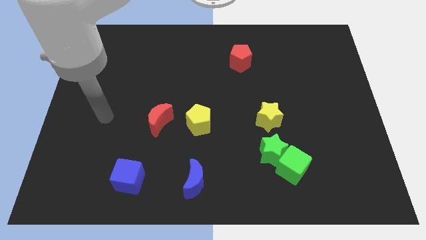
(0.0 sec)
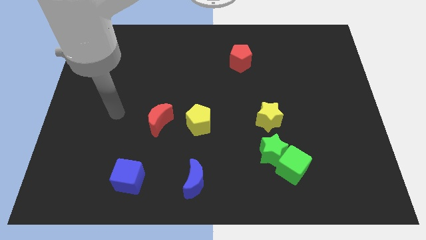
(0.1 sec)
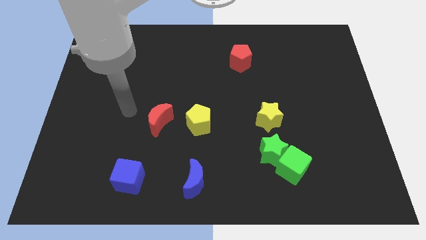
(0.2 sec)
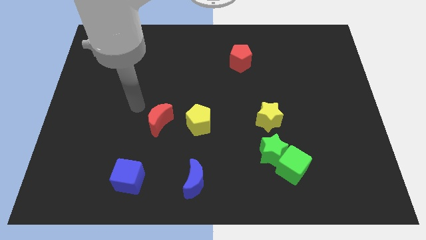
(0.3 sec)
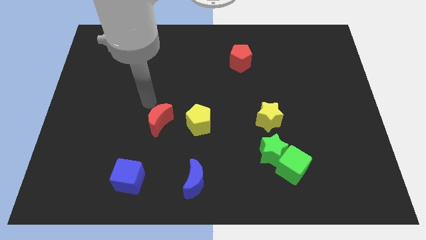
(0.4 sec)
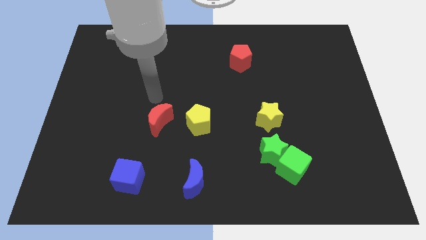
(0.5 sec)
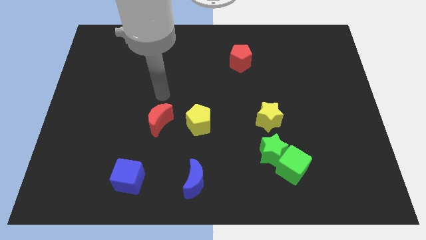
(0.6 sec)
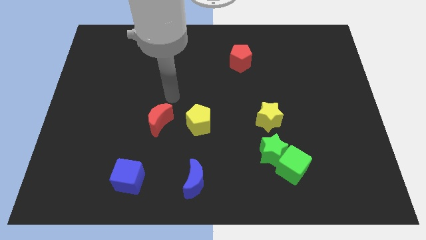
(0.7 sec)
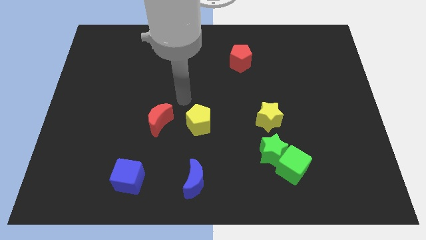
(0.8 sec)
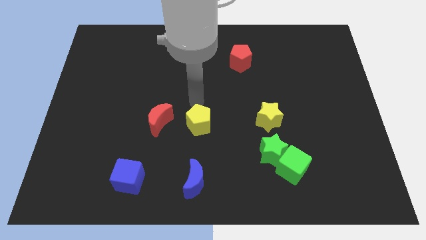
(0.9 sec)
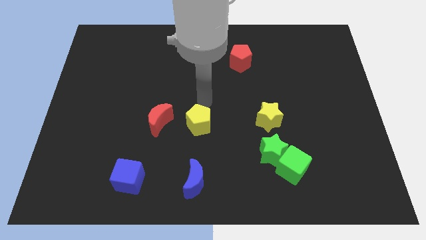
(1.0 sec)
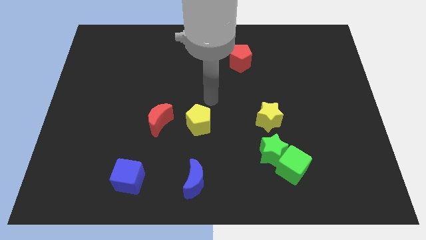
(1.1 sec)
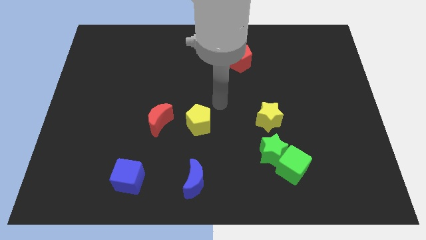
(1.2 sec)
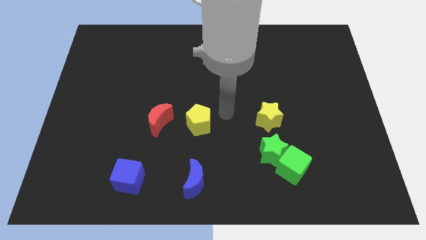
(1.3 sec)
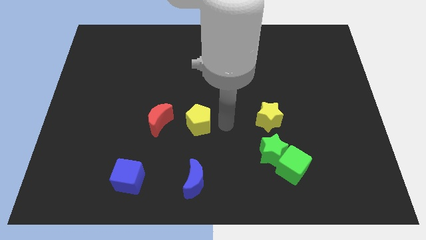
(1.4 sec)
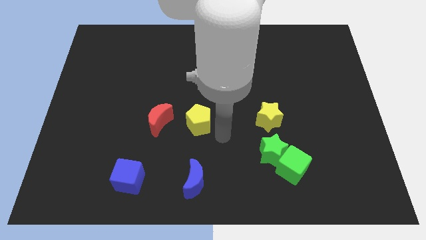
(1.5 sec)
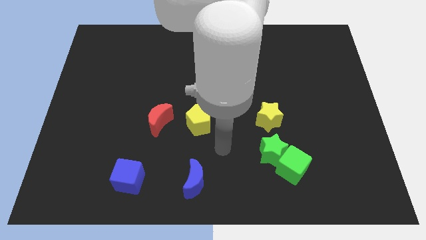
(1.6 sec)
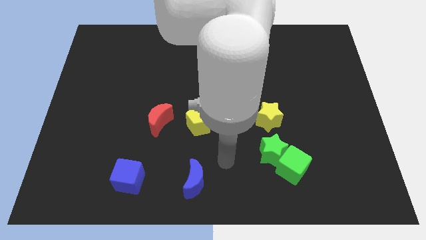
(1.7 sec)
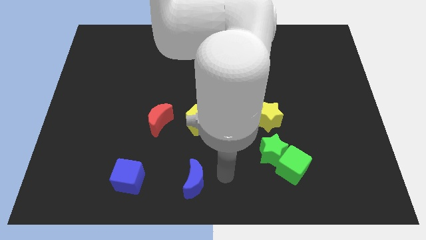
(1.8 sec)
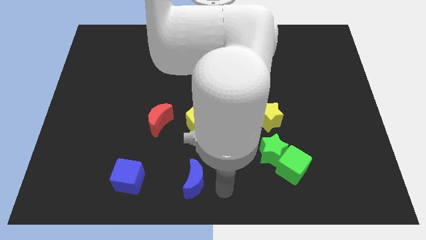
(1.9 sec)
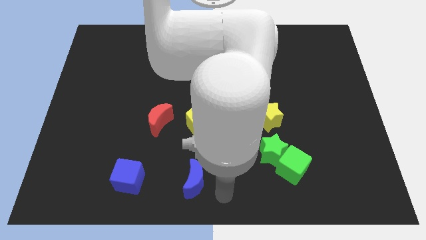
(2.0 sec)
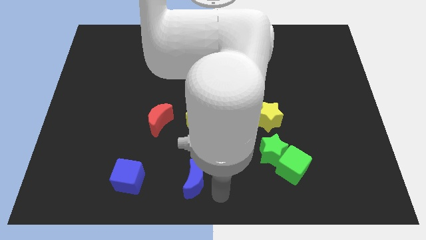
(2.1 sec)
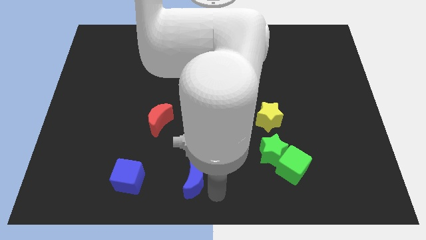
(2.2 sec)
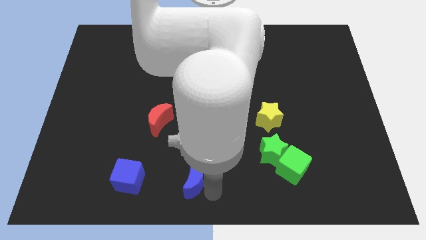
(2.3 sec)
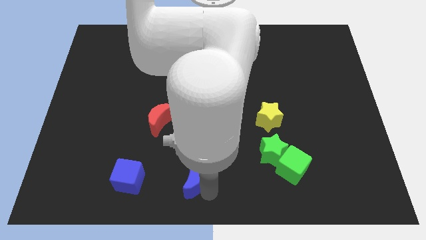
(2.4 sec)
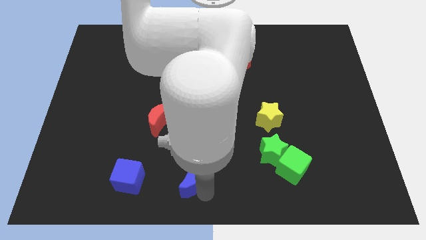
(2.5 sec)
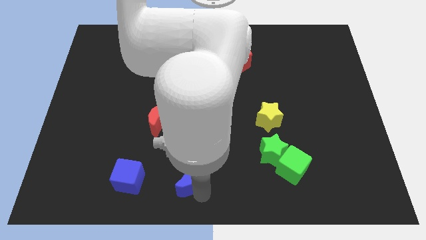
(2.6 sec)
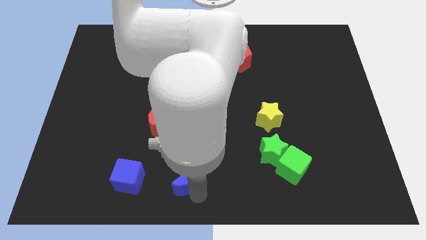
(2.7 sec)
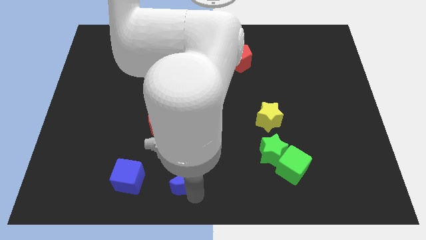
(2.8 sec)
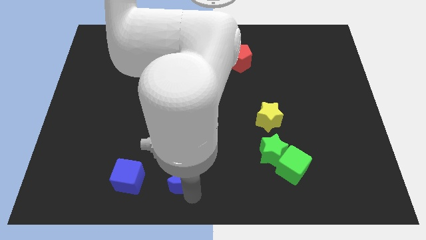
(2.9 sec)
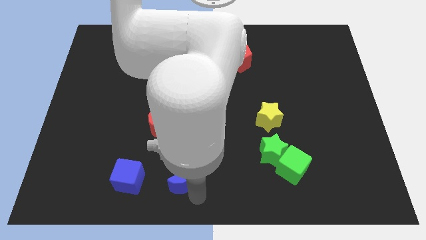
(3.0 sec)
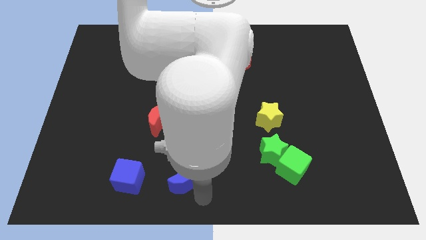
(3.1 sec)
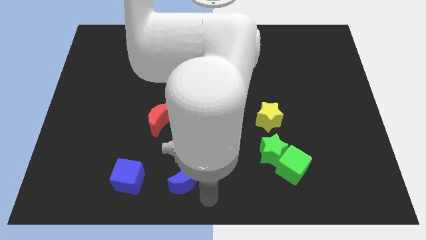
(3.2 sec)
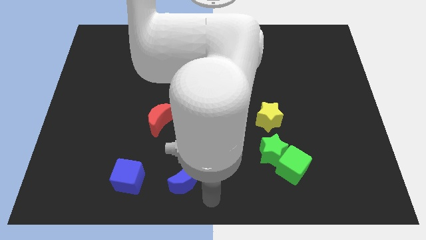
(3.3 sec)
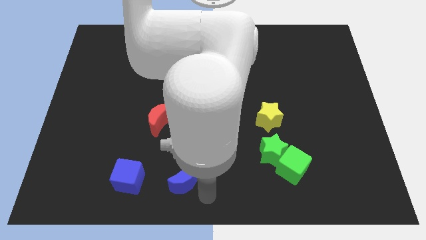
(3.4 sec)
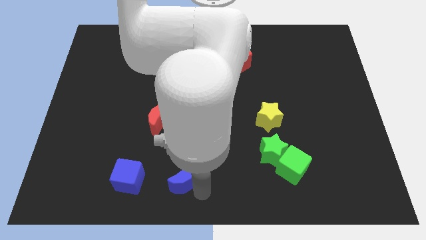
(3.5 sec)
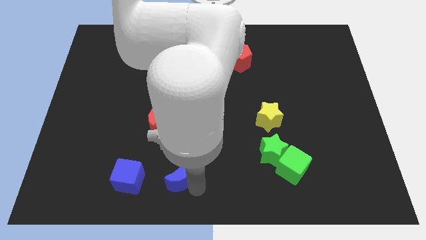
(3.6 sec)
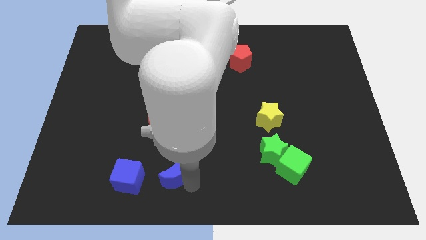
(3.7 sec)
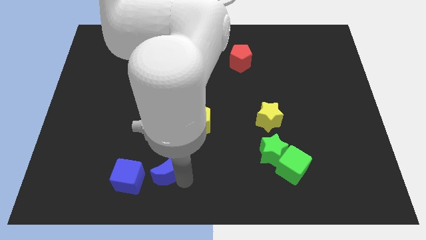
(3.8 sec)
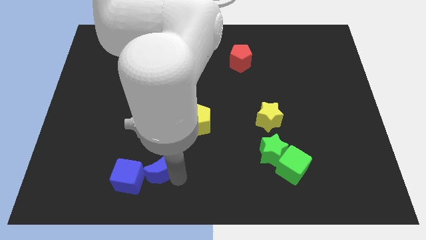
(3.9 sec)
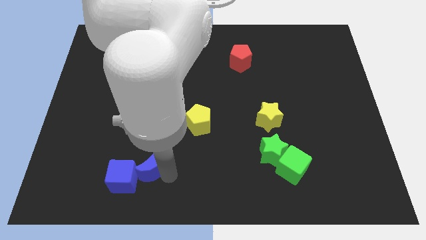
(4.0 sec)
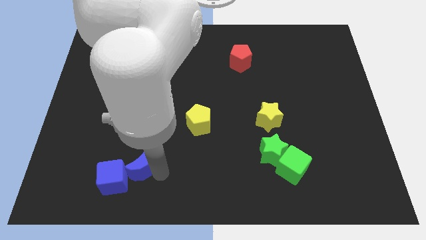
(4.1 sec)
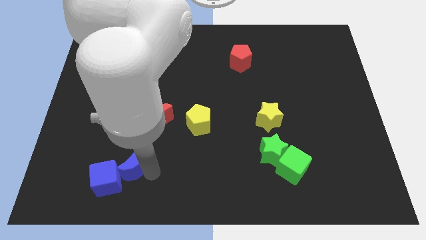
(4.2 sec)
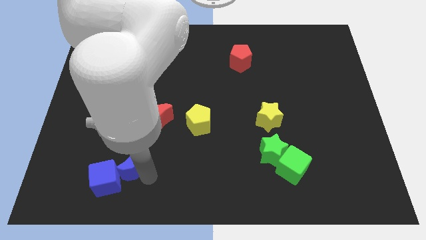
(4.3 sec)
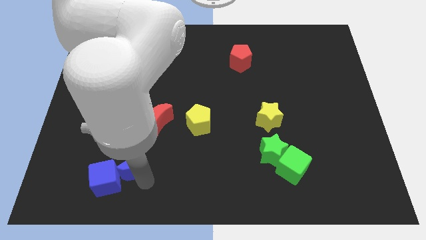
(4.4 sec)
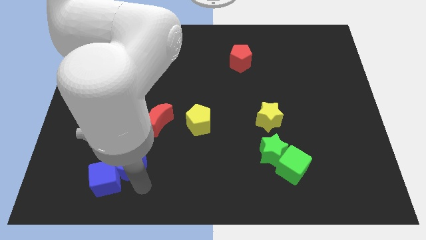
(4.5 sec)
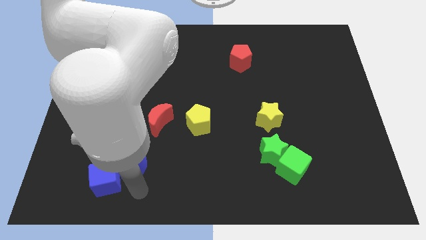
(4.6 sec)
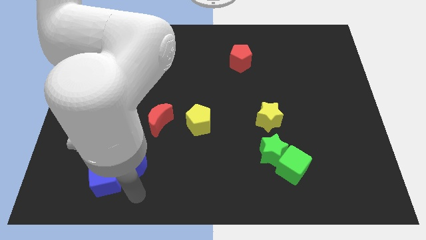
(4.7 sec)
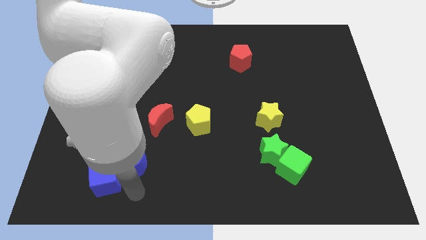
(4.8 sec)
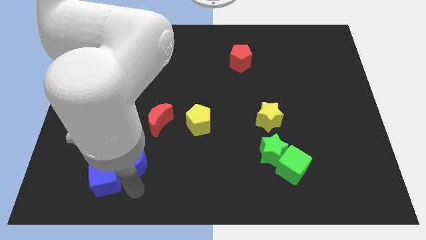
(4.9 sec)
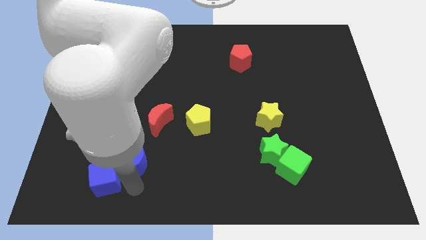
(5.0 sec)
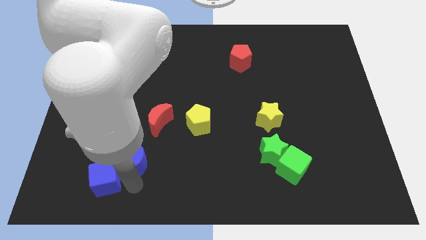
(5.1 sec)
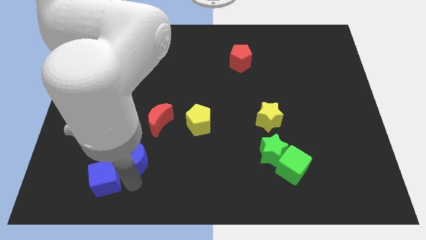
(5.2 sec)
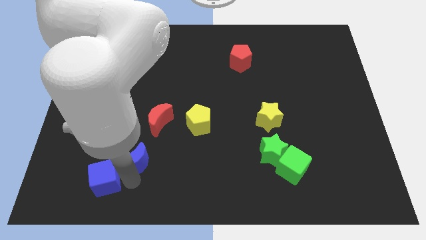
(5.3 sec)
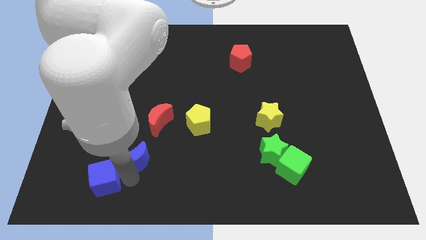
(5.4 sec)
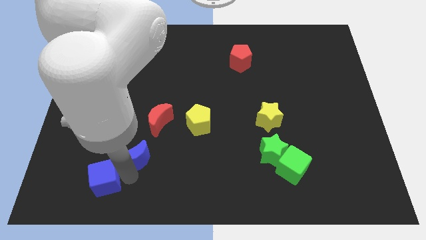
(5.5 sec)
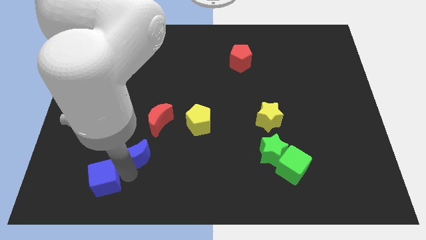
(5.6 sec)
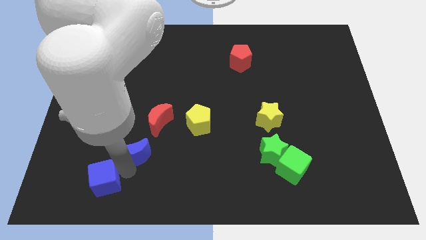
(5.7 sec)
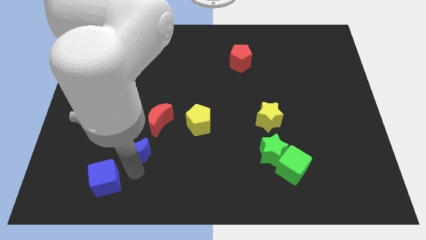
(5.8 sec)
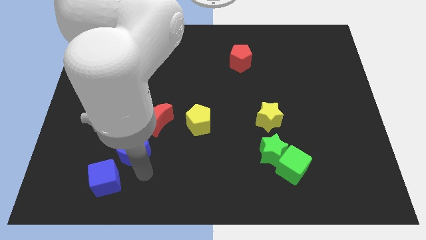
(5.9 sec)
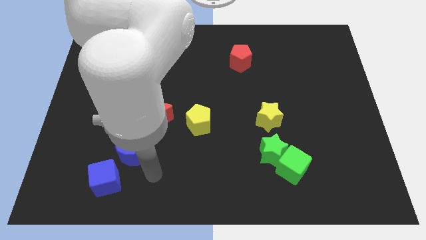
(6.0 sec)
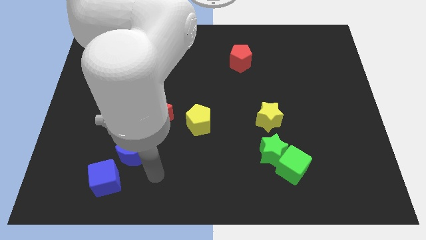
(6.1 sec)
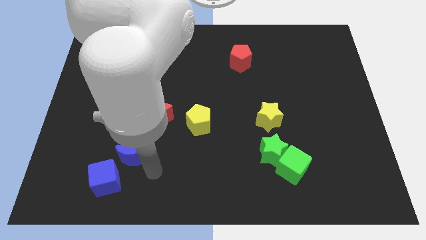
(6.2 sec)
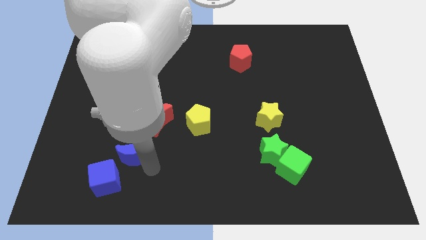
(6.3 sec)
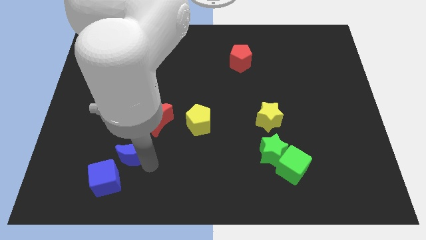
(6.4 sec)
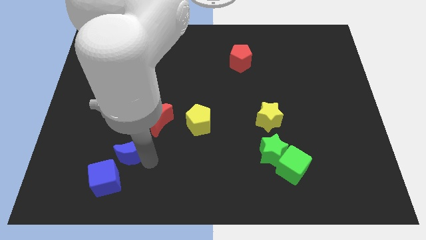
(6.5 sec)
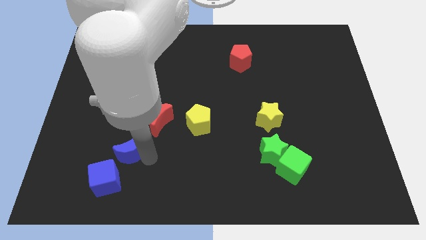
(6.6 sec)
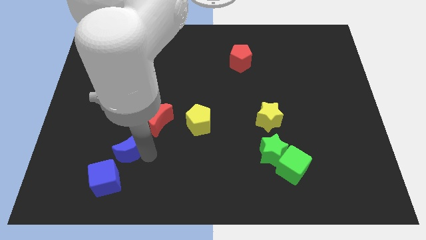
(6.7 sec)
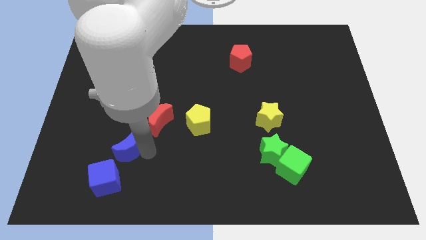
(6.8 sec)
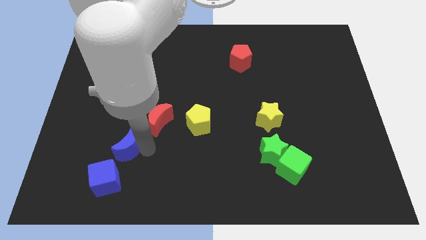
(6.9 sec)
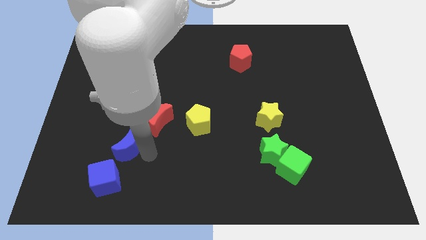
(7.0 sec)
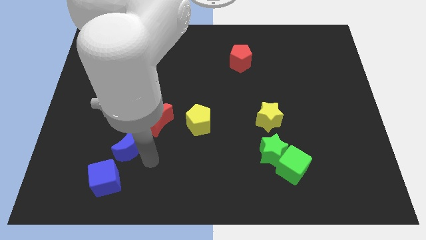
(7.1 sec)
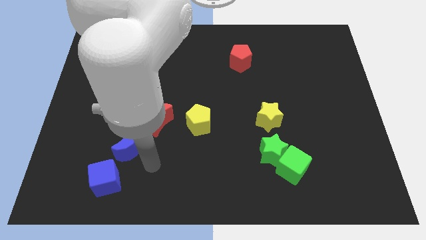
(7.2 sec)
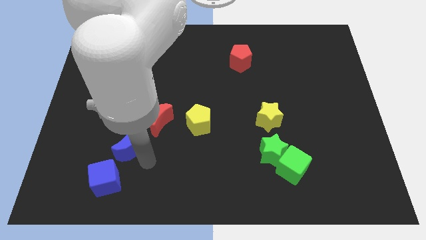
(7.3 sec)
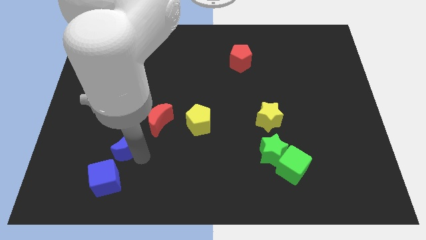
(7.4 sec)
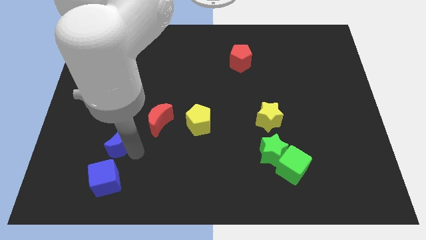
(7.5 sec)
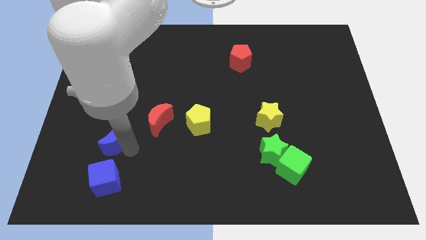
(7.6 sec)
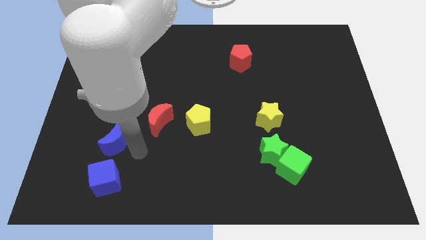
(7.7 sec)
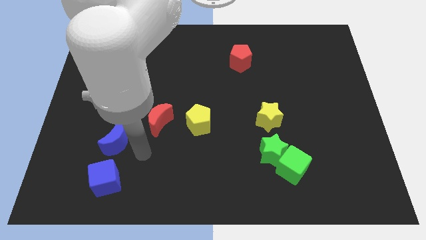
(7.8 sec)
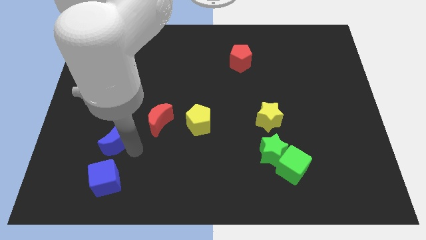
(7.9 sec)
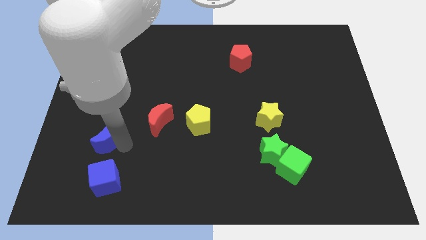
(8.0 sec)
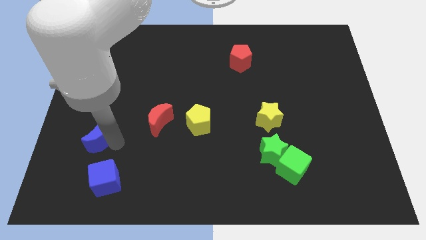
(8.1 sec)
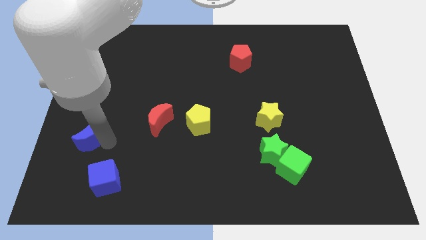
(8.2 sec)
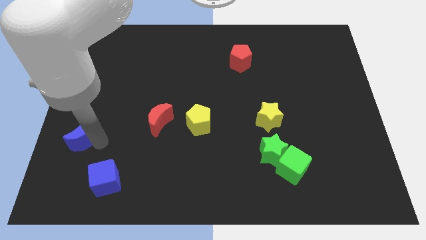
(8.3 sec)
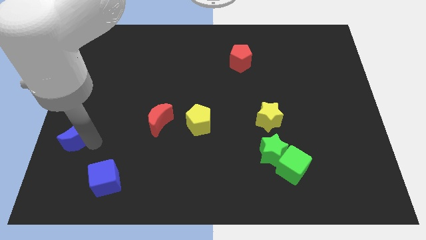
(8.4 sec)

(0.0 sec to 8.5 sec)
put the blue moon to the left side of the board
